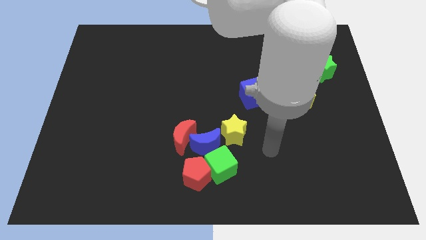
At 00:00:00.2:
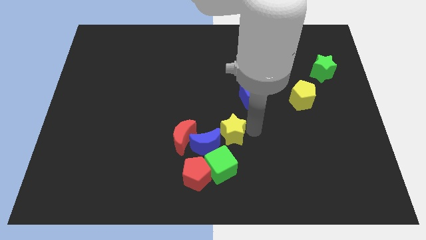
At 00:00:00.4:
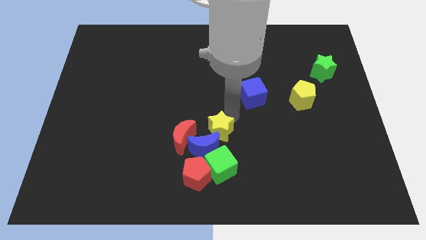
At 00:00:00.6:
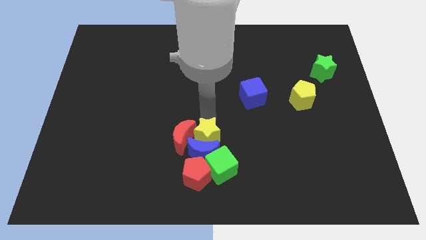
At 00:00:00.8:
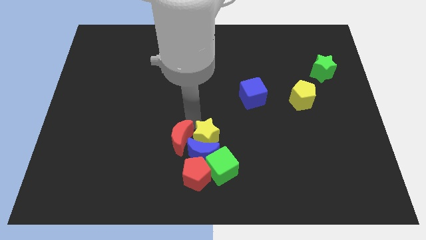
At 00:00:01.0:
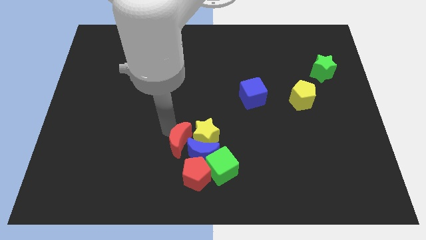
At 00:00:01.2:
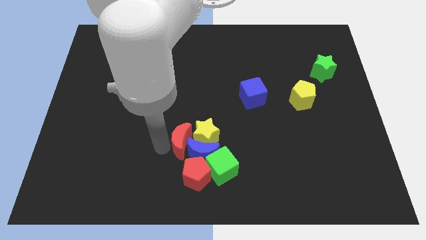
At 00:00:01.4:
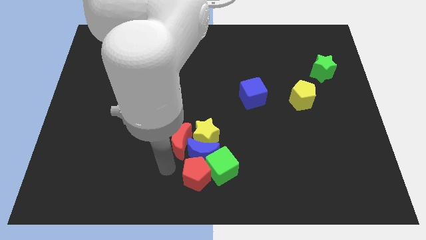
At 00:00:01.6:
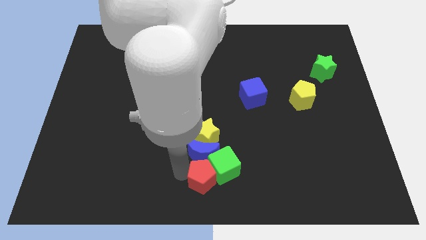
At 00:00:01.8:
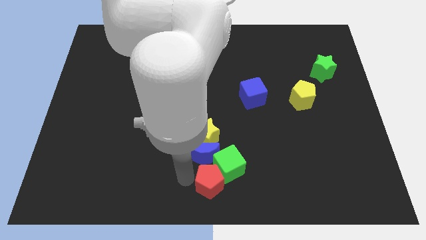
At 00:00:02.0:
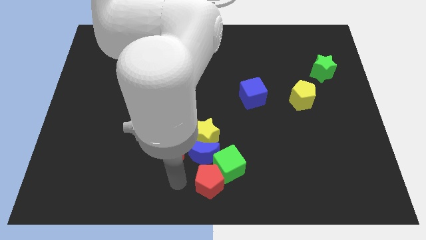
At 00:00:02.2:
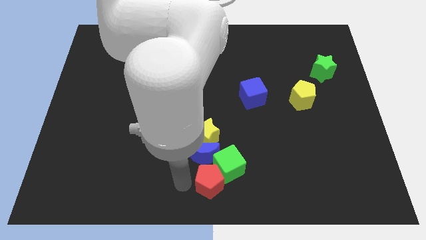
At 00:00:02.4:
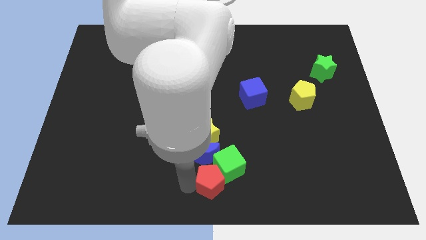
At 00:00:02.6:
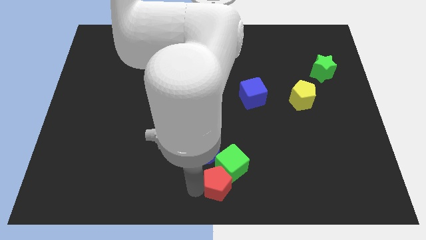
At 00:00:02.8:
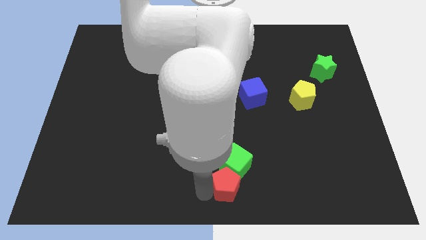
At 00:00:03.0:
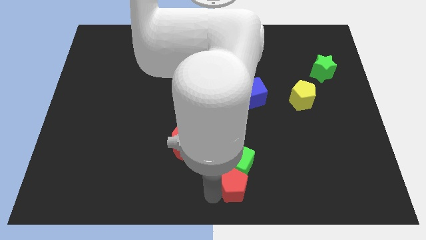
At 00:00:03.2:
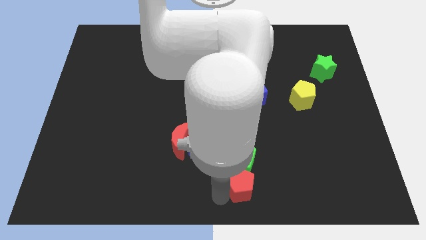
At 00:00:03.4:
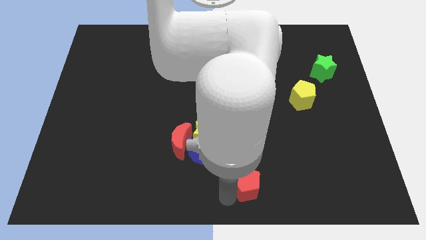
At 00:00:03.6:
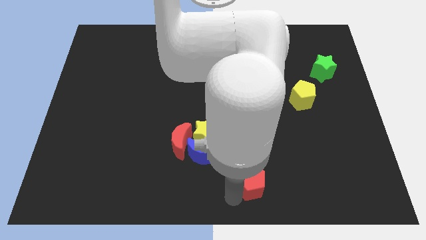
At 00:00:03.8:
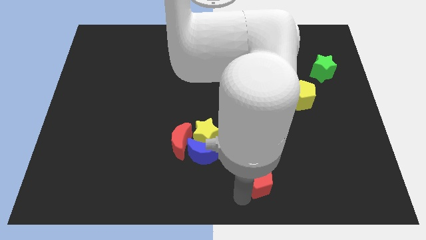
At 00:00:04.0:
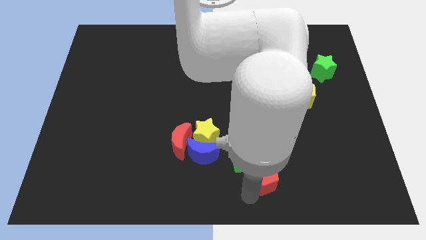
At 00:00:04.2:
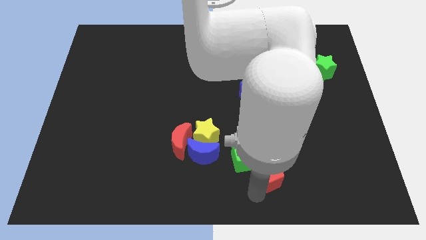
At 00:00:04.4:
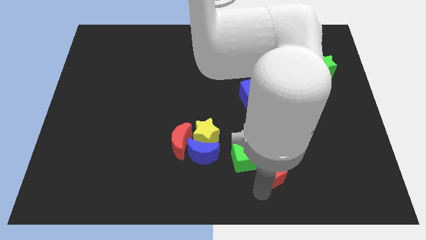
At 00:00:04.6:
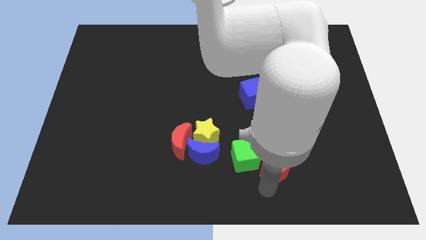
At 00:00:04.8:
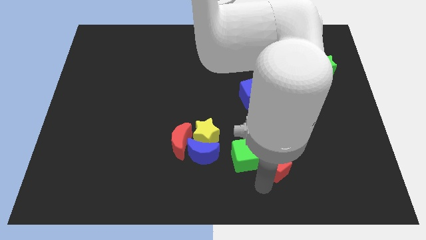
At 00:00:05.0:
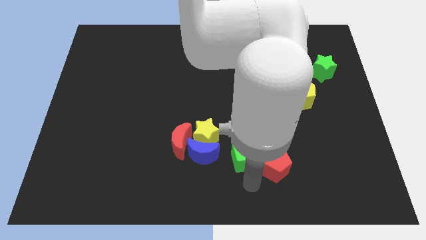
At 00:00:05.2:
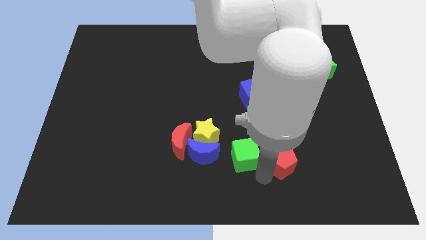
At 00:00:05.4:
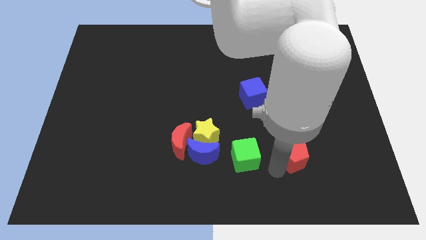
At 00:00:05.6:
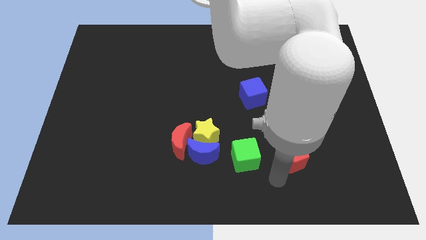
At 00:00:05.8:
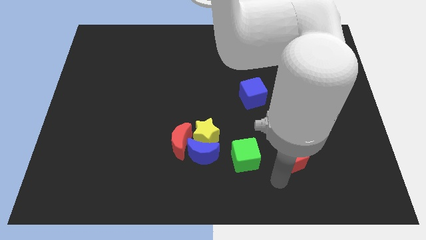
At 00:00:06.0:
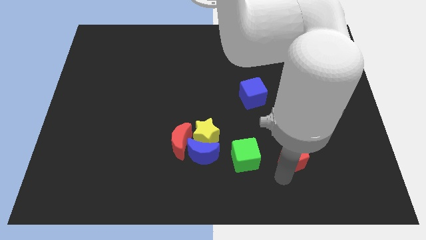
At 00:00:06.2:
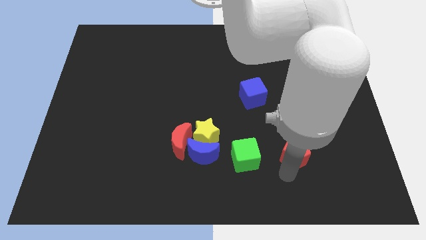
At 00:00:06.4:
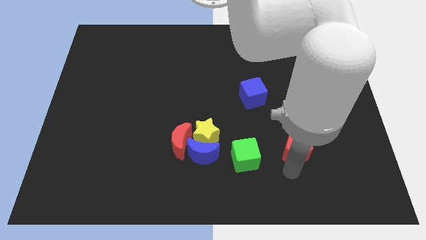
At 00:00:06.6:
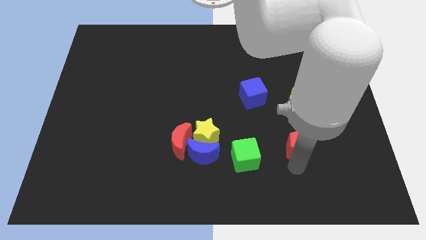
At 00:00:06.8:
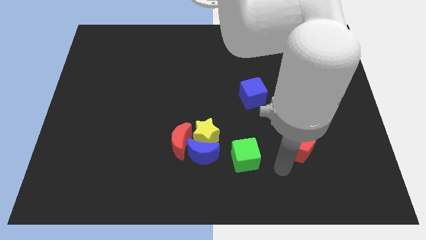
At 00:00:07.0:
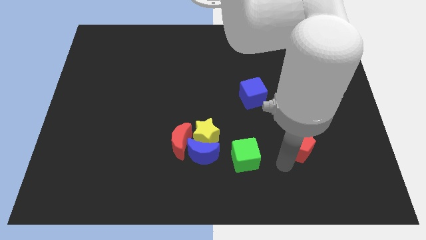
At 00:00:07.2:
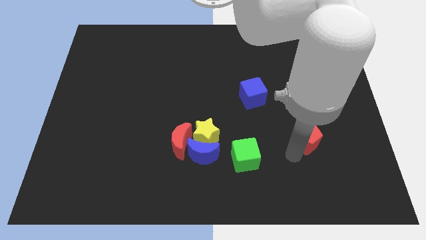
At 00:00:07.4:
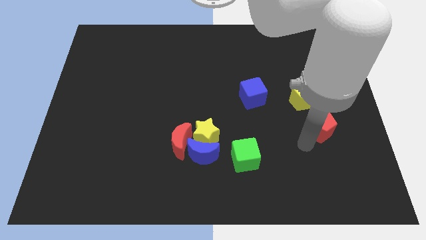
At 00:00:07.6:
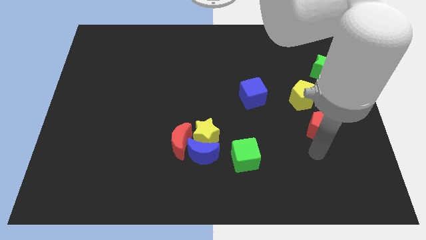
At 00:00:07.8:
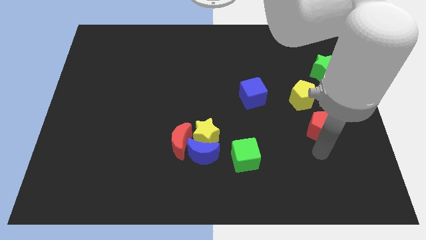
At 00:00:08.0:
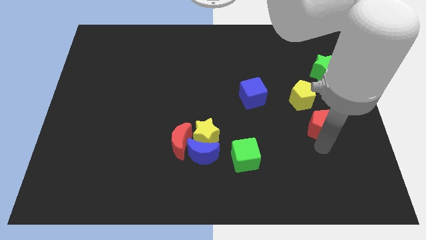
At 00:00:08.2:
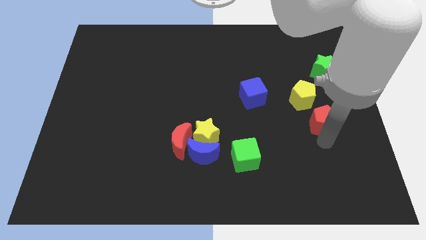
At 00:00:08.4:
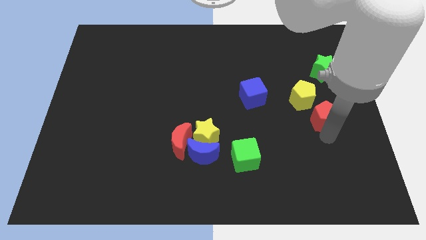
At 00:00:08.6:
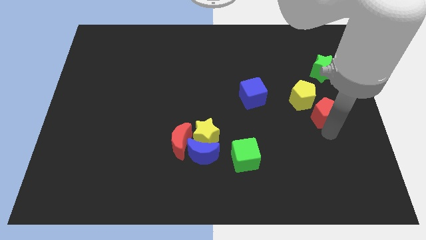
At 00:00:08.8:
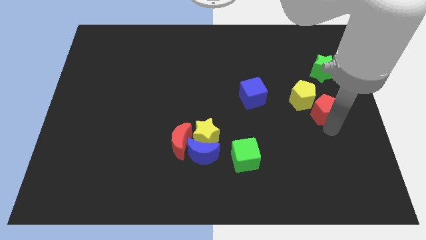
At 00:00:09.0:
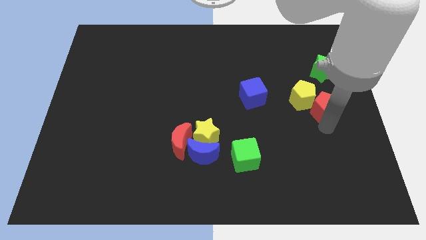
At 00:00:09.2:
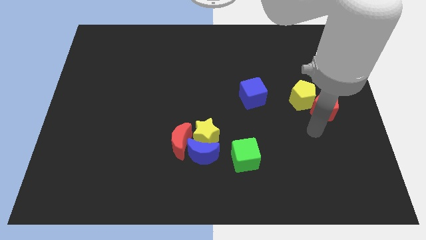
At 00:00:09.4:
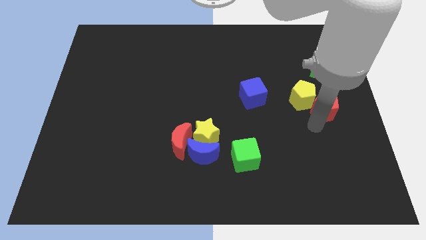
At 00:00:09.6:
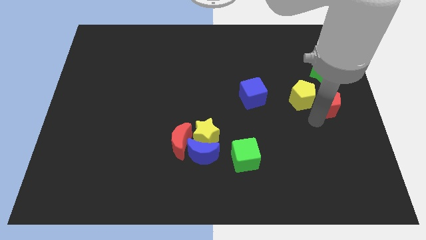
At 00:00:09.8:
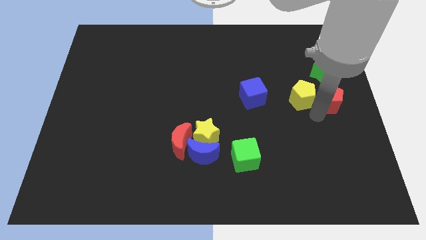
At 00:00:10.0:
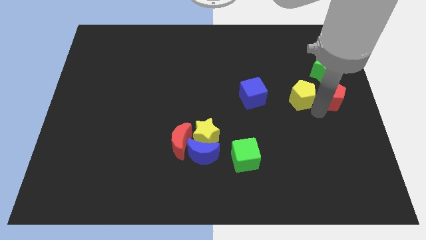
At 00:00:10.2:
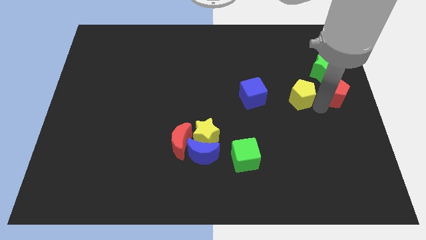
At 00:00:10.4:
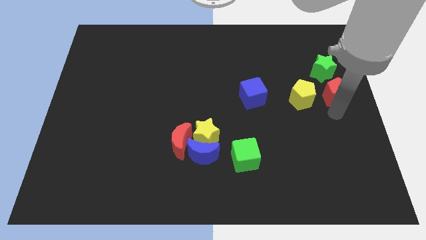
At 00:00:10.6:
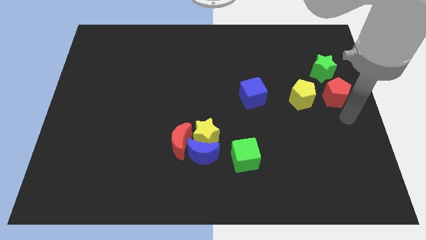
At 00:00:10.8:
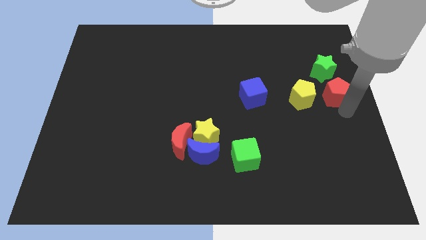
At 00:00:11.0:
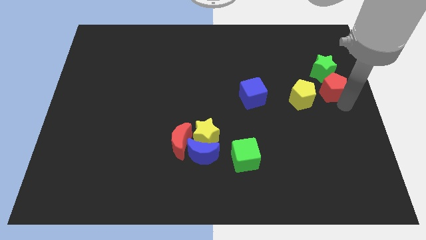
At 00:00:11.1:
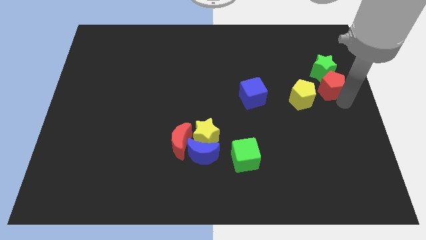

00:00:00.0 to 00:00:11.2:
put the red pentagon towards the green star

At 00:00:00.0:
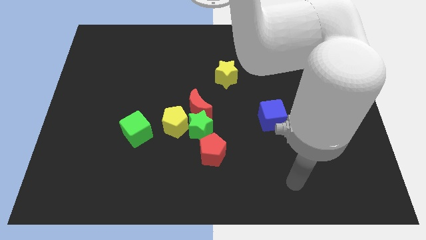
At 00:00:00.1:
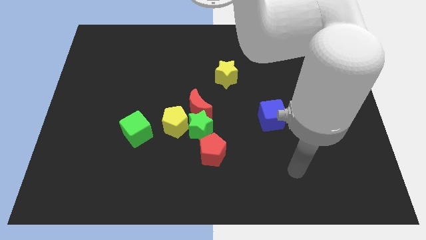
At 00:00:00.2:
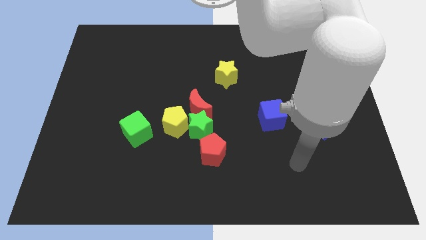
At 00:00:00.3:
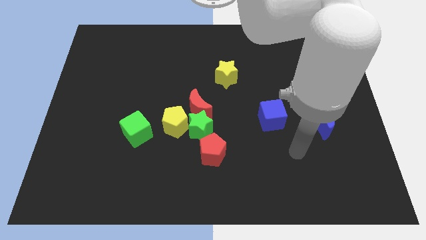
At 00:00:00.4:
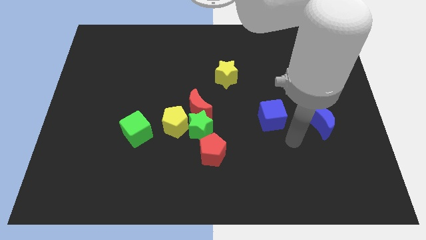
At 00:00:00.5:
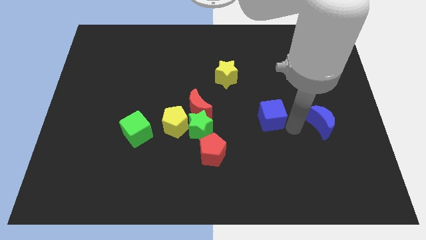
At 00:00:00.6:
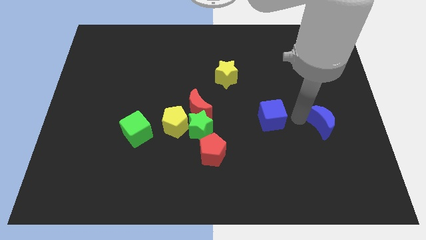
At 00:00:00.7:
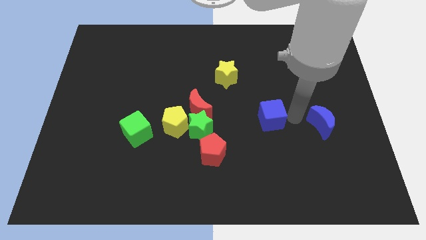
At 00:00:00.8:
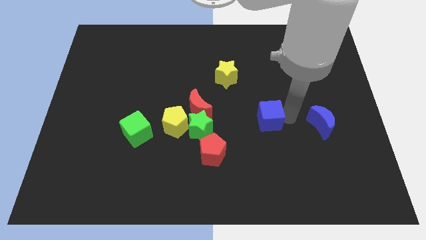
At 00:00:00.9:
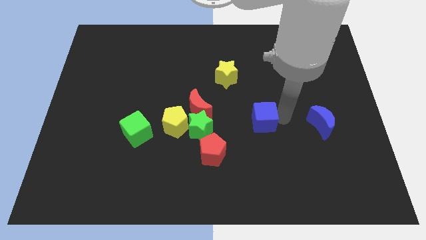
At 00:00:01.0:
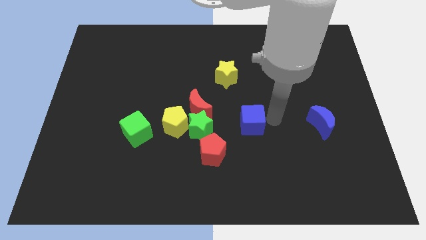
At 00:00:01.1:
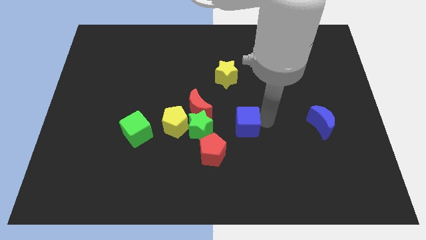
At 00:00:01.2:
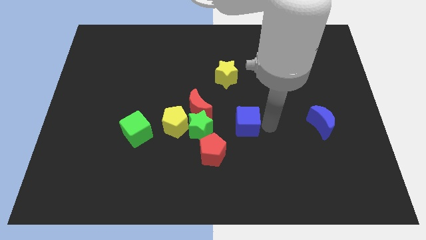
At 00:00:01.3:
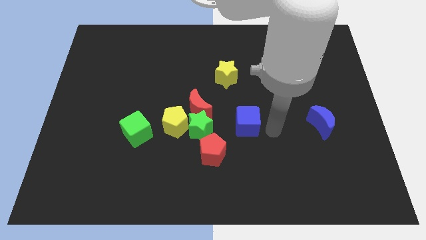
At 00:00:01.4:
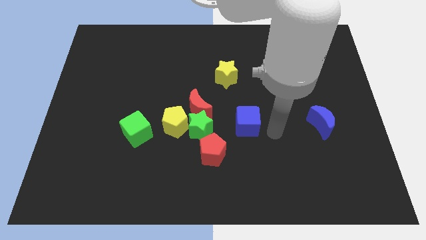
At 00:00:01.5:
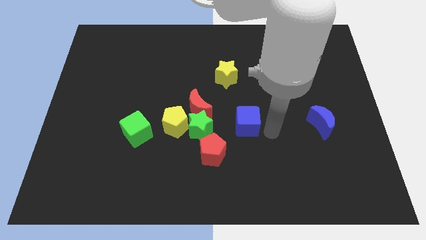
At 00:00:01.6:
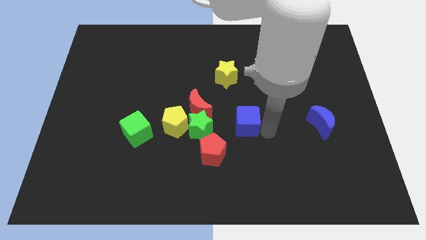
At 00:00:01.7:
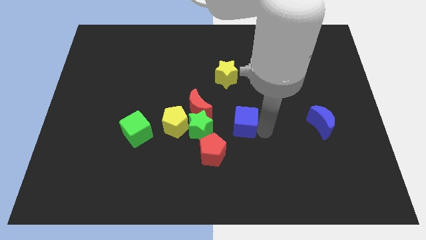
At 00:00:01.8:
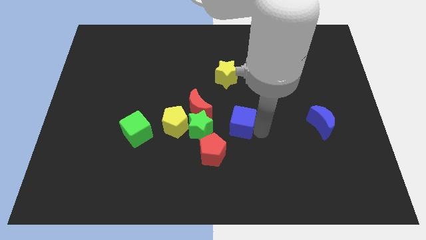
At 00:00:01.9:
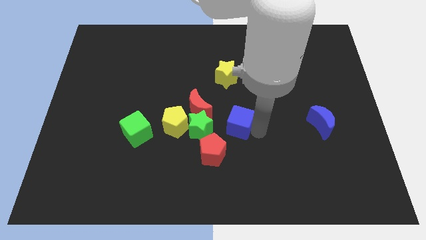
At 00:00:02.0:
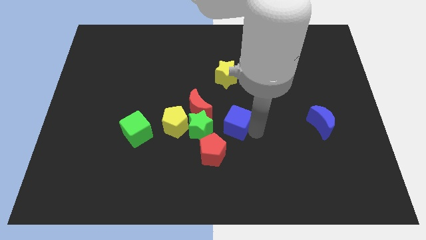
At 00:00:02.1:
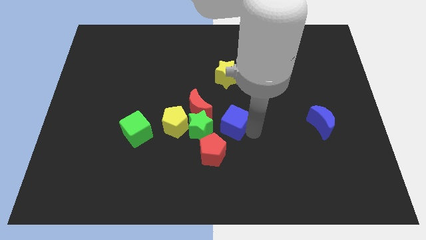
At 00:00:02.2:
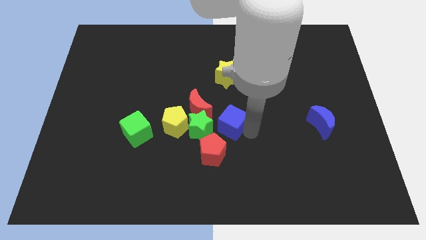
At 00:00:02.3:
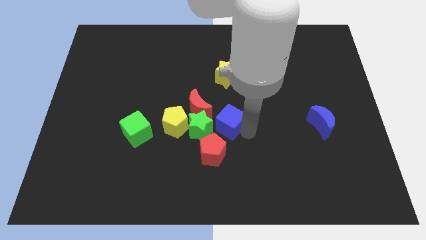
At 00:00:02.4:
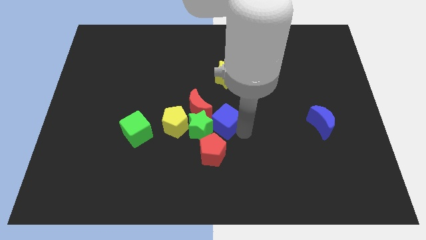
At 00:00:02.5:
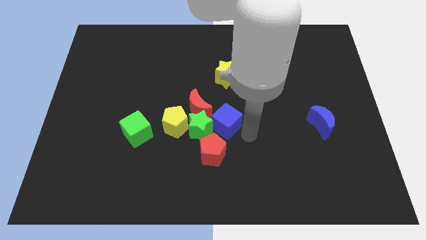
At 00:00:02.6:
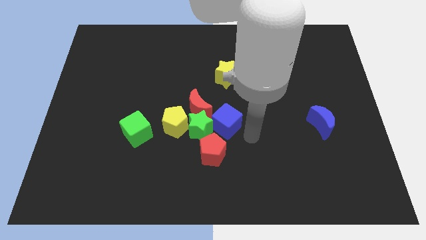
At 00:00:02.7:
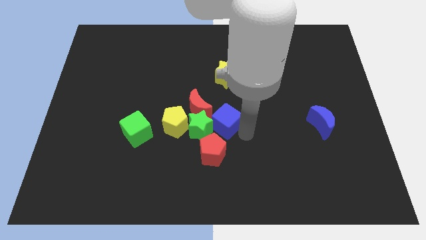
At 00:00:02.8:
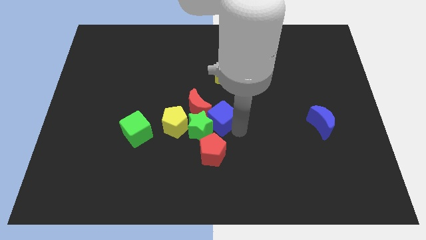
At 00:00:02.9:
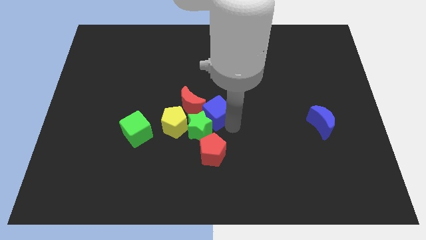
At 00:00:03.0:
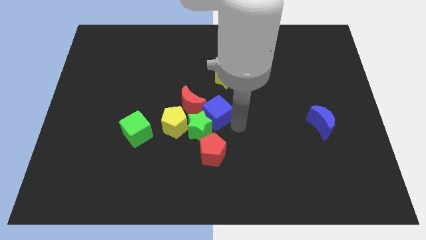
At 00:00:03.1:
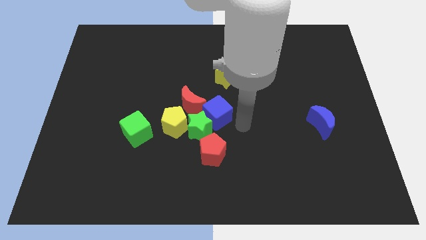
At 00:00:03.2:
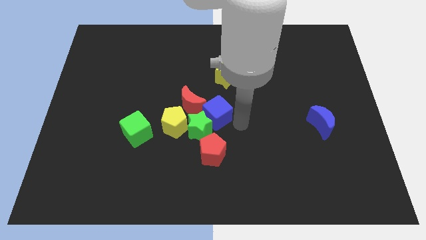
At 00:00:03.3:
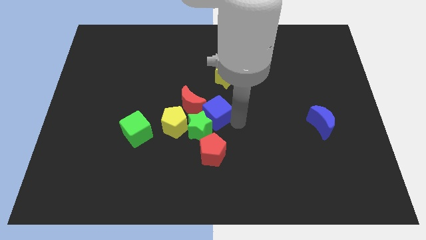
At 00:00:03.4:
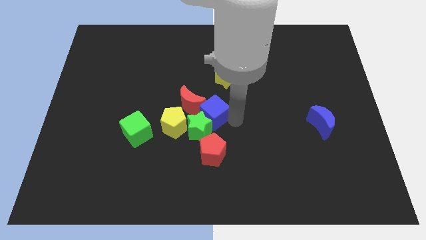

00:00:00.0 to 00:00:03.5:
put the blue cube close to the red moon
